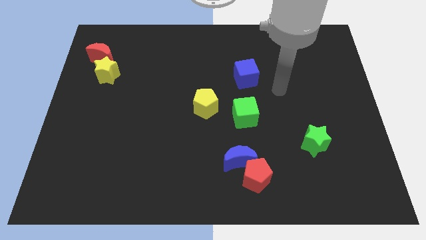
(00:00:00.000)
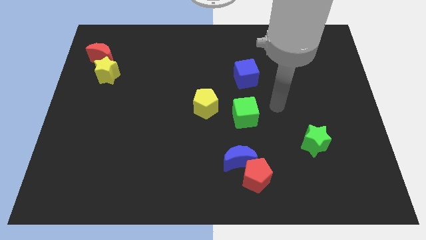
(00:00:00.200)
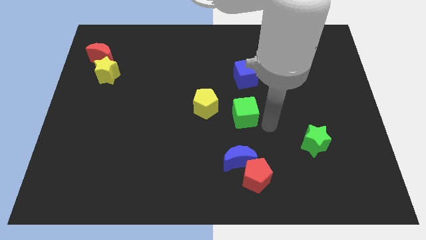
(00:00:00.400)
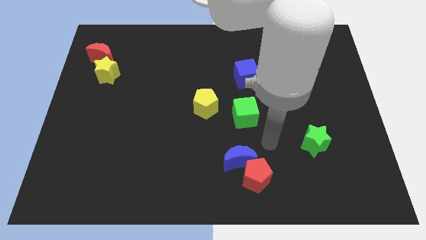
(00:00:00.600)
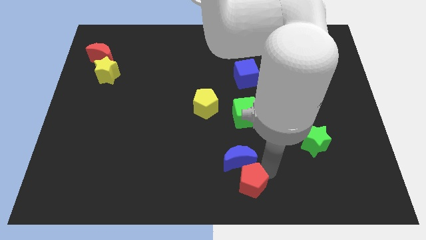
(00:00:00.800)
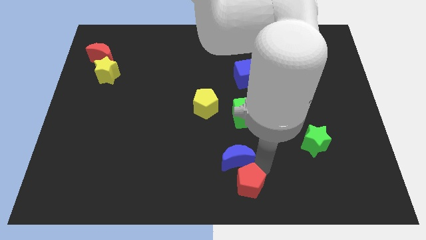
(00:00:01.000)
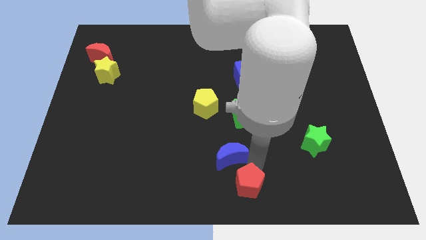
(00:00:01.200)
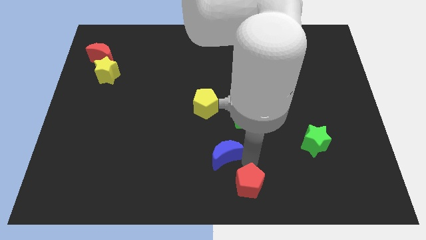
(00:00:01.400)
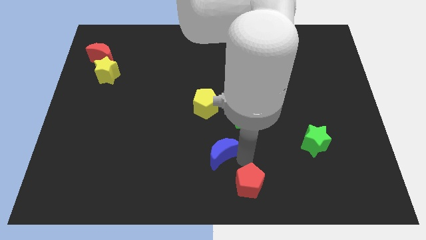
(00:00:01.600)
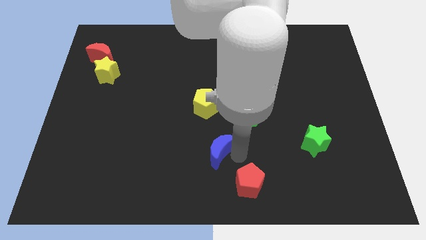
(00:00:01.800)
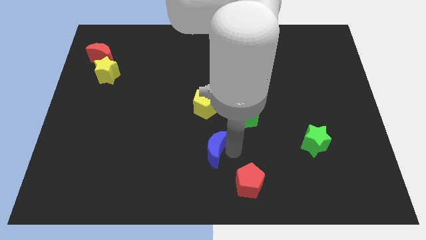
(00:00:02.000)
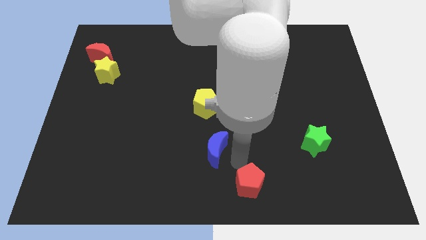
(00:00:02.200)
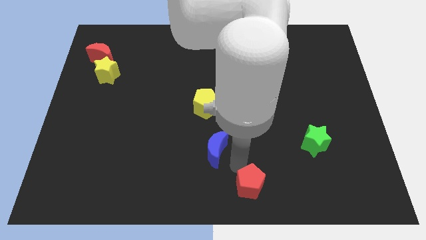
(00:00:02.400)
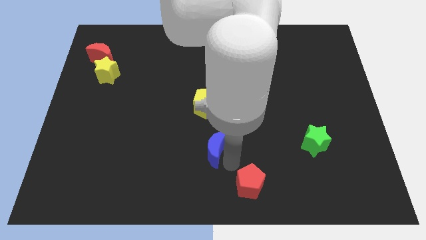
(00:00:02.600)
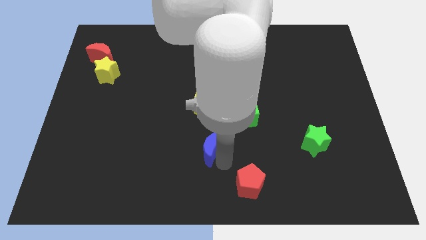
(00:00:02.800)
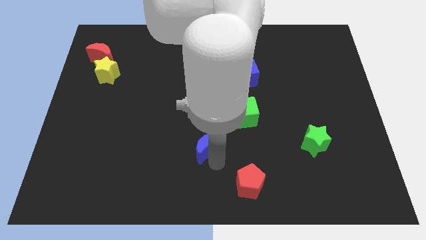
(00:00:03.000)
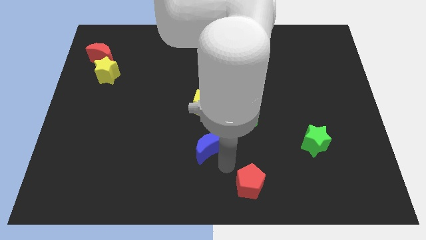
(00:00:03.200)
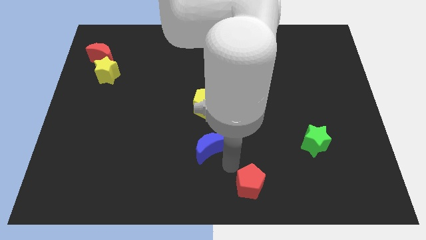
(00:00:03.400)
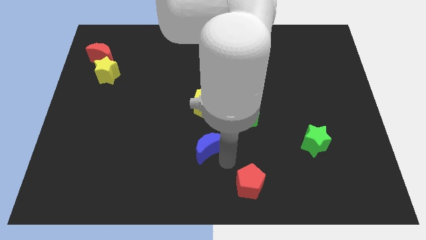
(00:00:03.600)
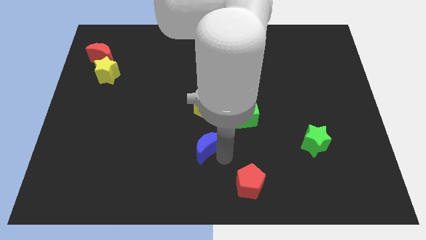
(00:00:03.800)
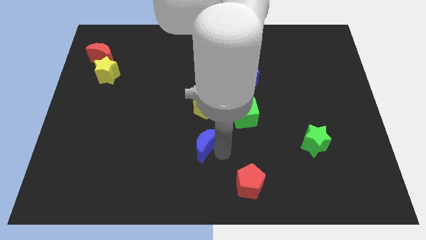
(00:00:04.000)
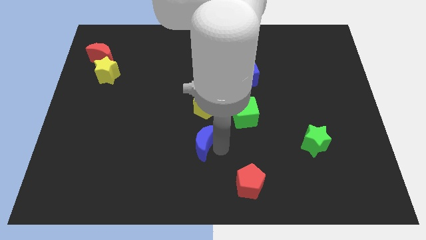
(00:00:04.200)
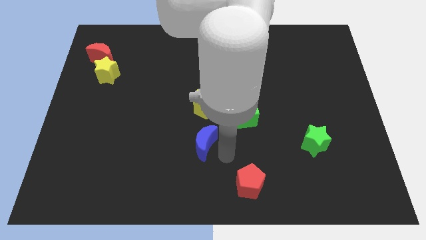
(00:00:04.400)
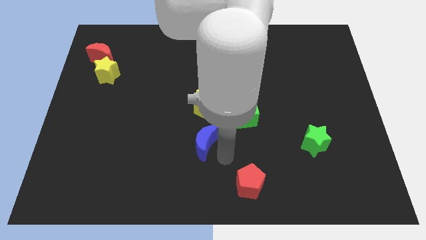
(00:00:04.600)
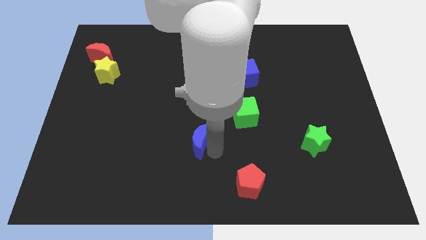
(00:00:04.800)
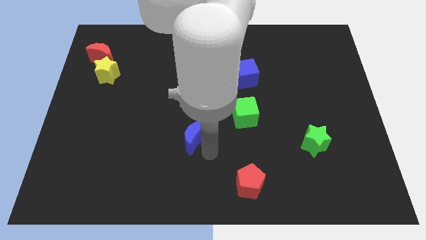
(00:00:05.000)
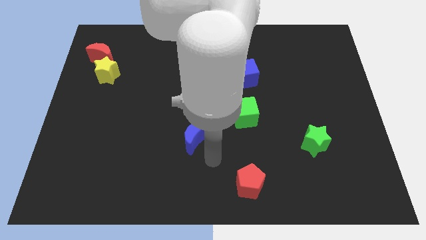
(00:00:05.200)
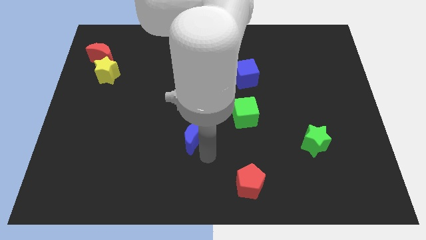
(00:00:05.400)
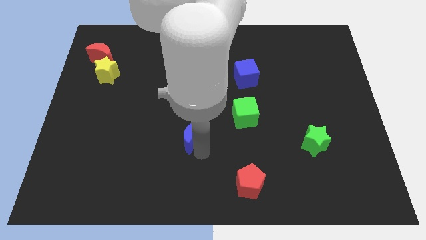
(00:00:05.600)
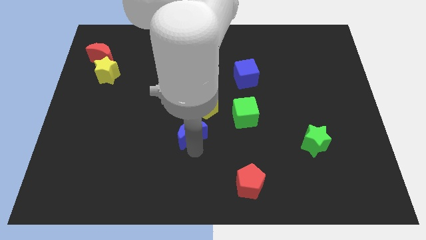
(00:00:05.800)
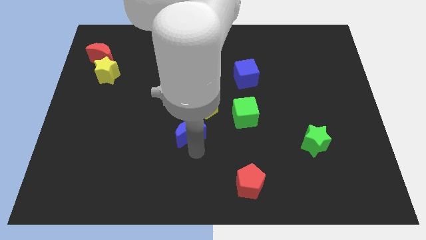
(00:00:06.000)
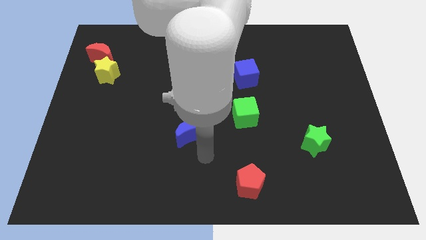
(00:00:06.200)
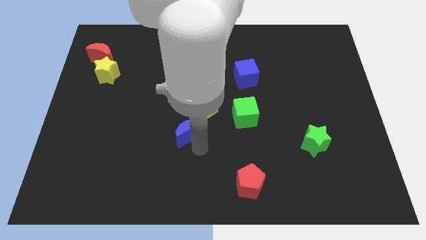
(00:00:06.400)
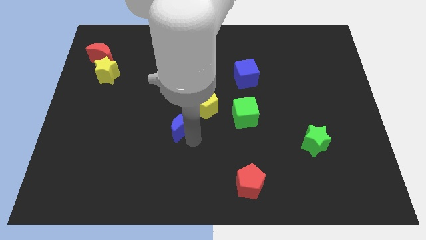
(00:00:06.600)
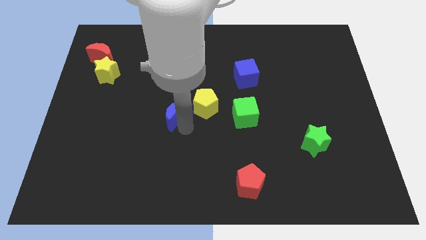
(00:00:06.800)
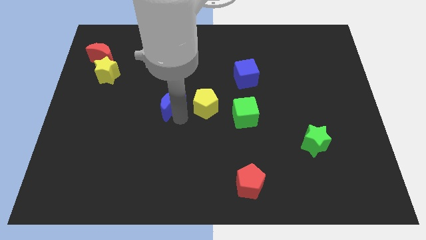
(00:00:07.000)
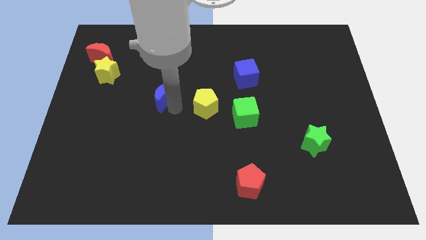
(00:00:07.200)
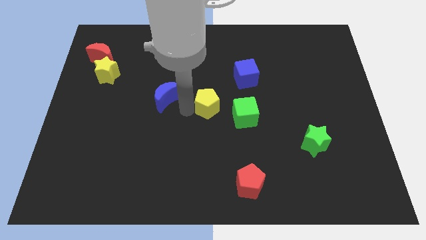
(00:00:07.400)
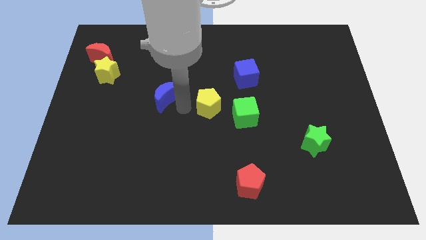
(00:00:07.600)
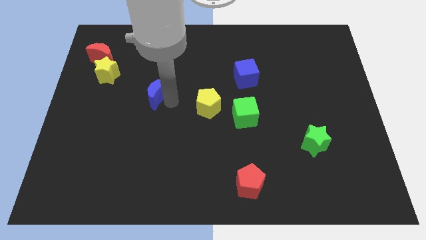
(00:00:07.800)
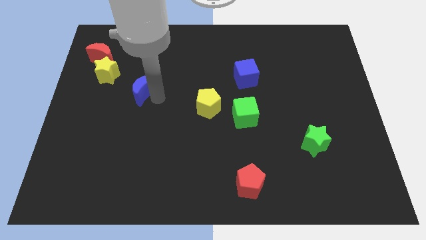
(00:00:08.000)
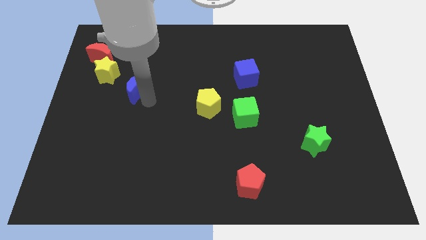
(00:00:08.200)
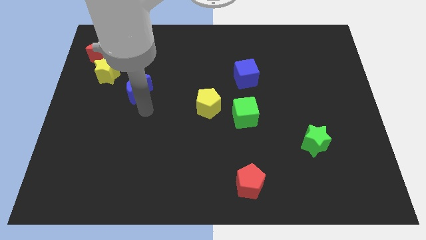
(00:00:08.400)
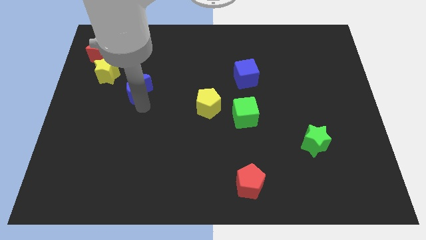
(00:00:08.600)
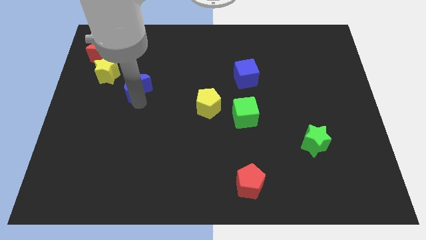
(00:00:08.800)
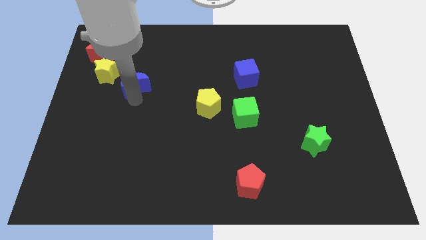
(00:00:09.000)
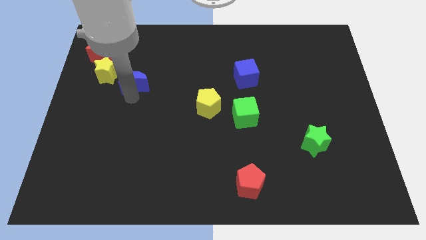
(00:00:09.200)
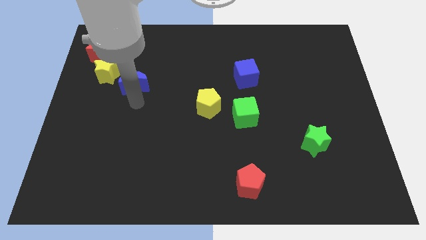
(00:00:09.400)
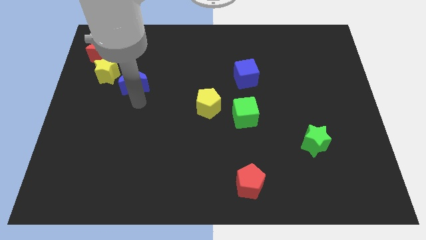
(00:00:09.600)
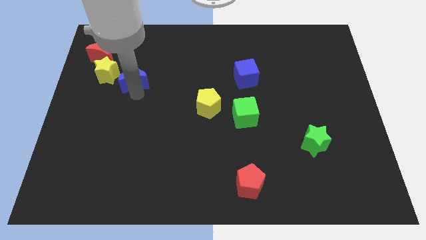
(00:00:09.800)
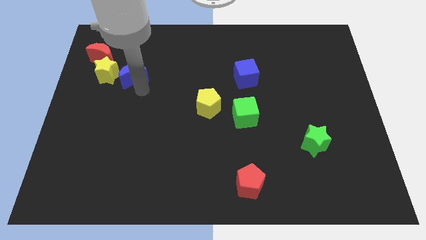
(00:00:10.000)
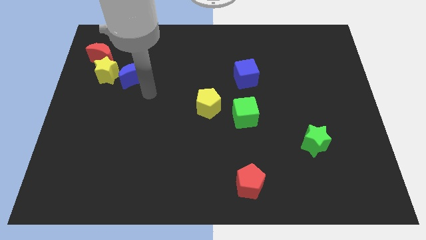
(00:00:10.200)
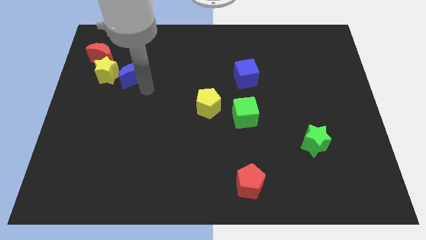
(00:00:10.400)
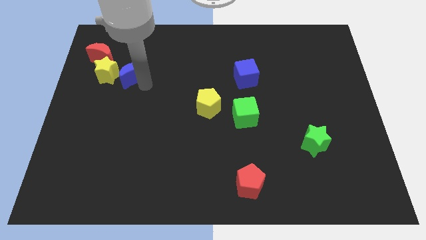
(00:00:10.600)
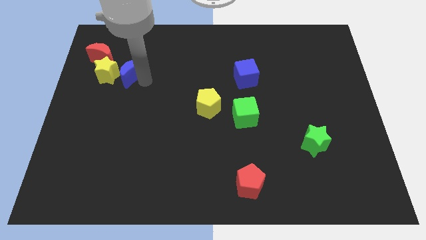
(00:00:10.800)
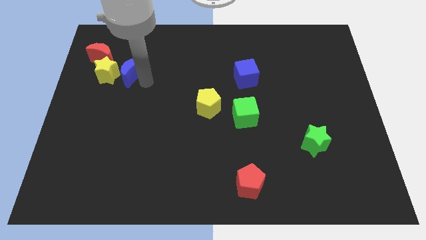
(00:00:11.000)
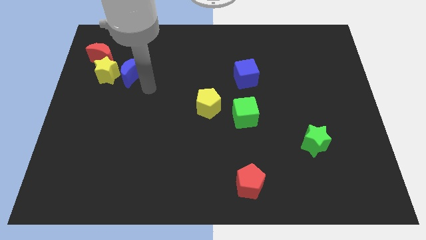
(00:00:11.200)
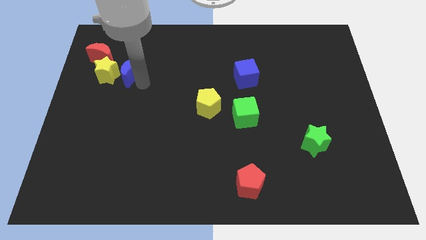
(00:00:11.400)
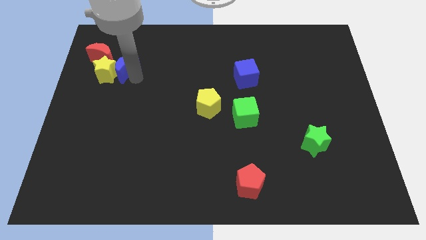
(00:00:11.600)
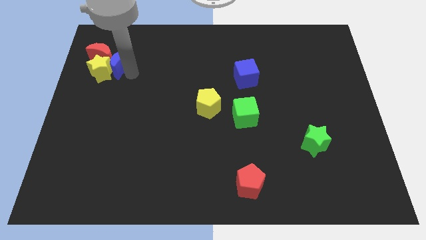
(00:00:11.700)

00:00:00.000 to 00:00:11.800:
put the blue moon to the red moon
